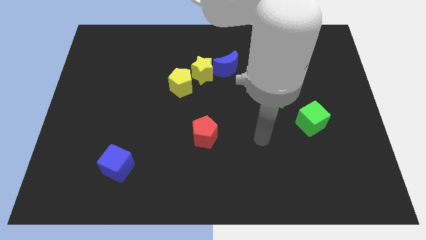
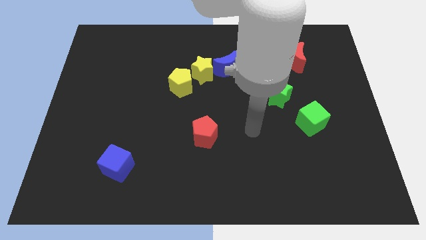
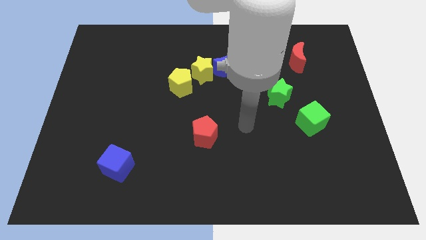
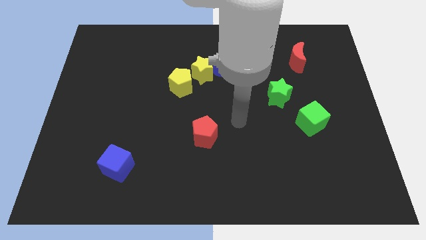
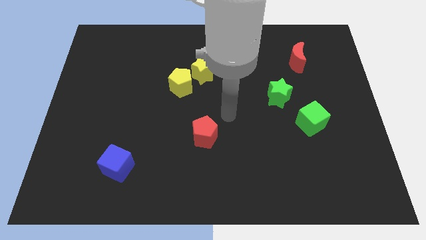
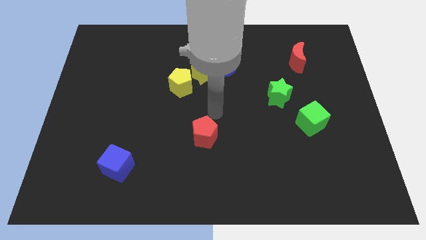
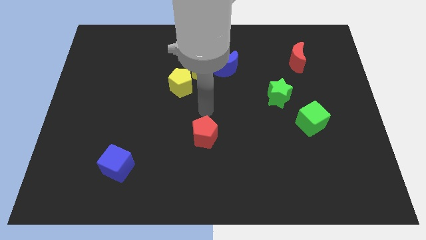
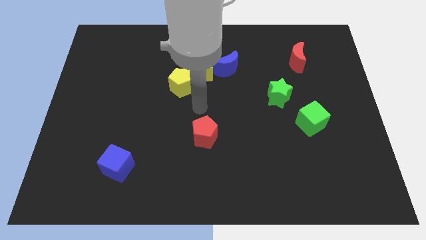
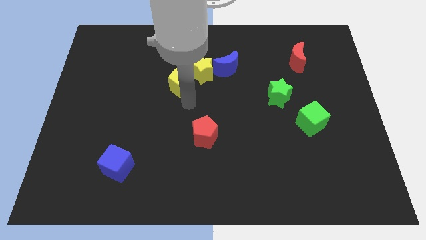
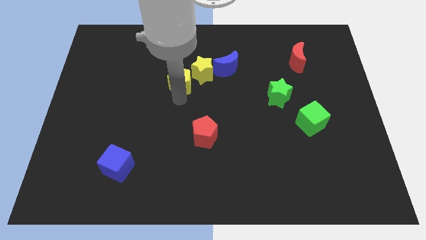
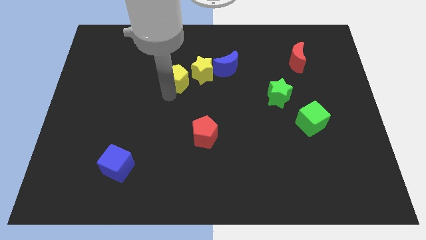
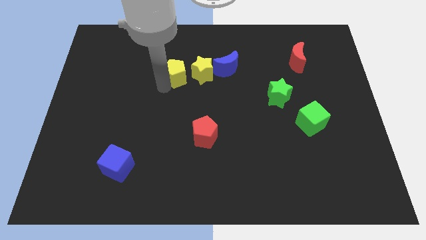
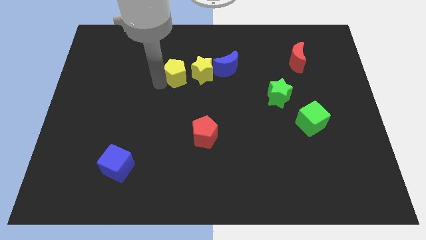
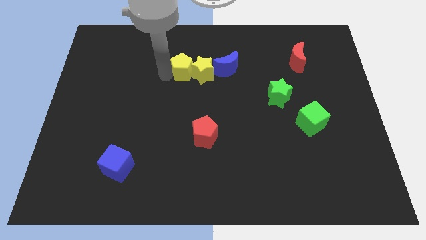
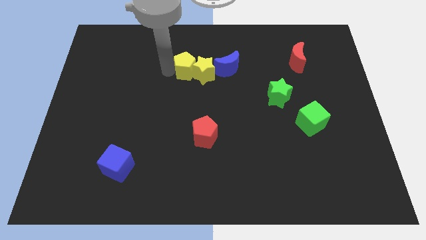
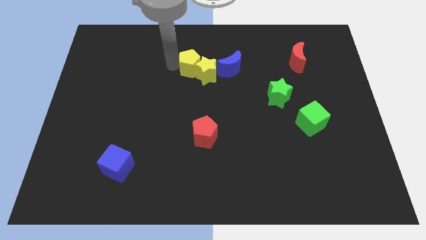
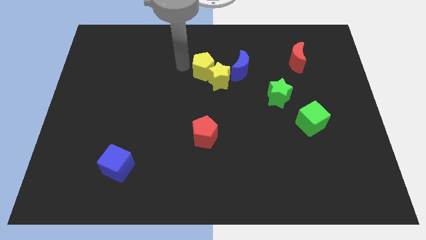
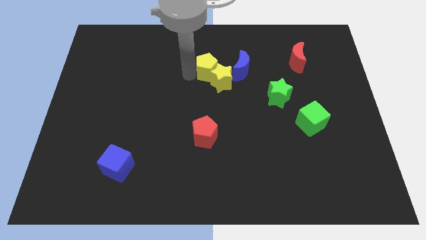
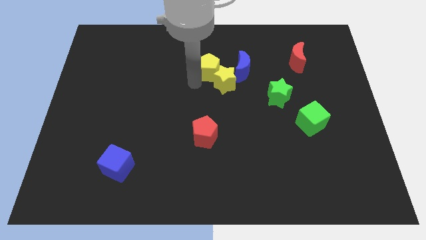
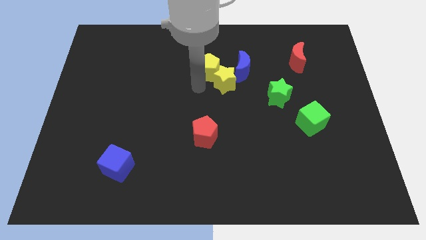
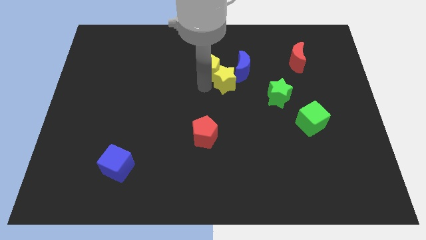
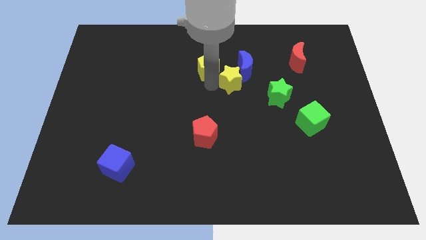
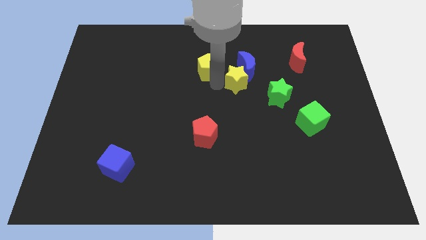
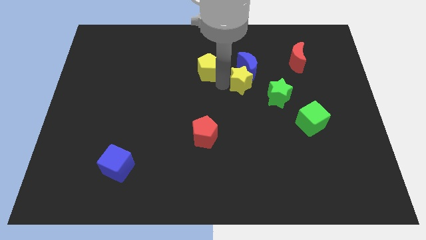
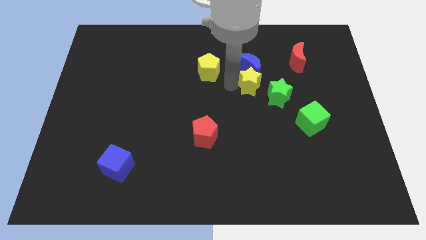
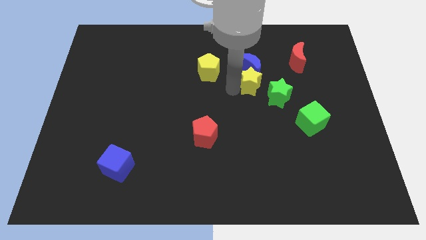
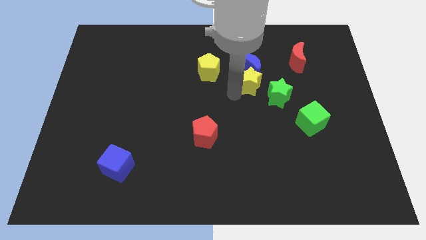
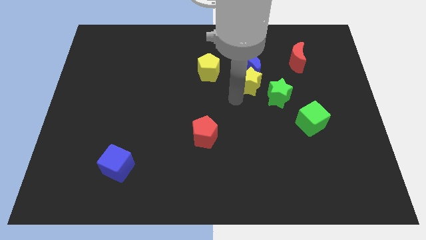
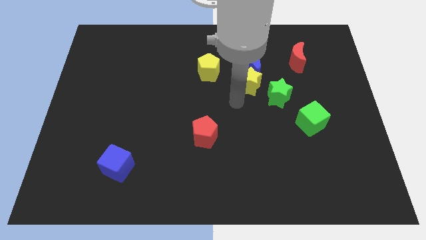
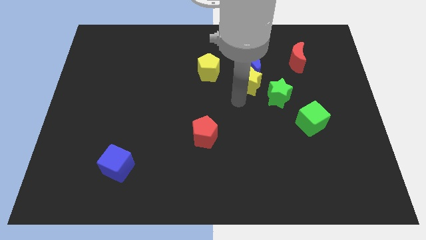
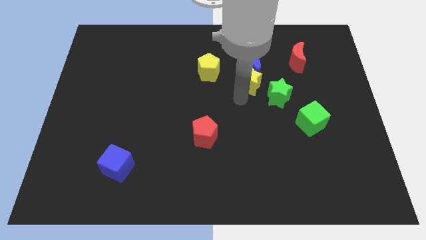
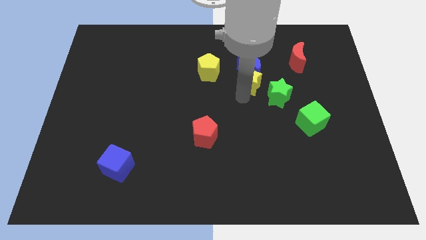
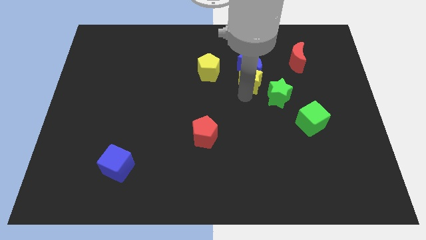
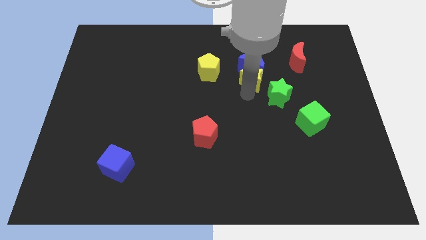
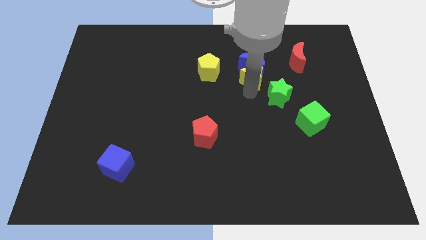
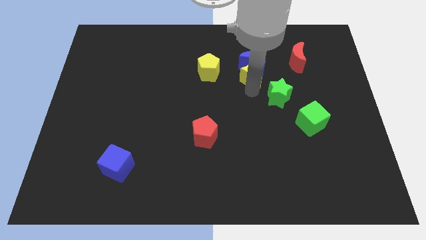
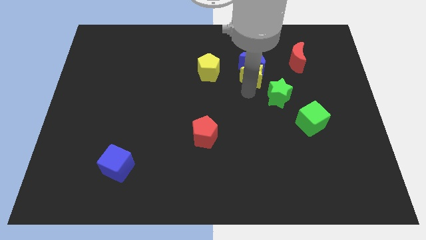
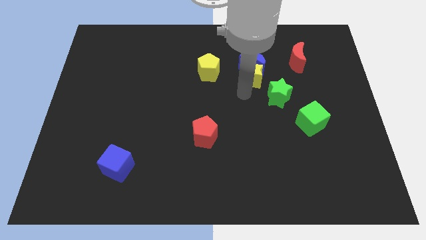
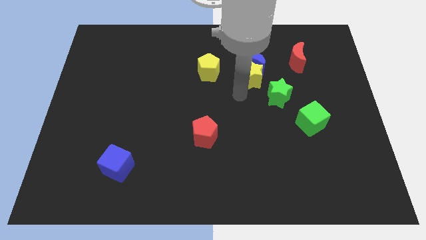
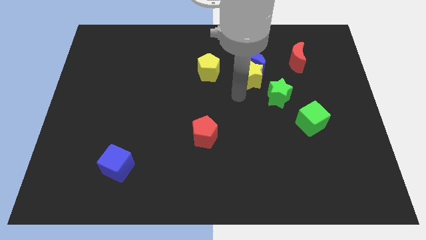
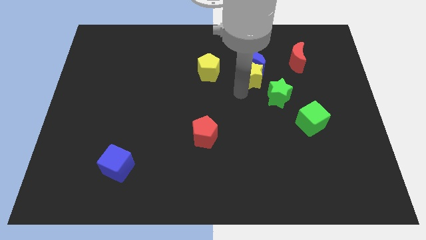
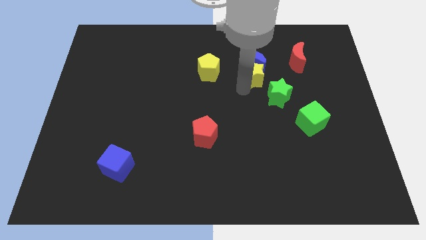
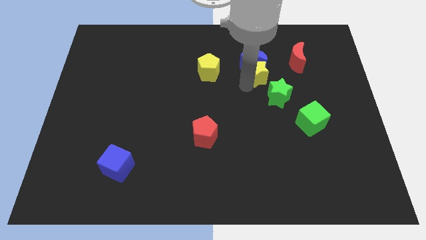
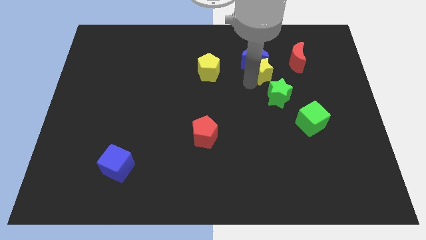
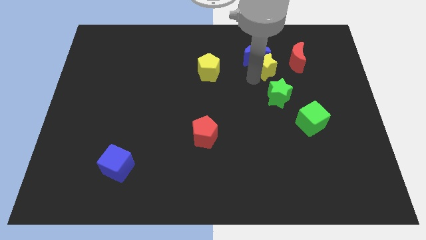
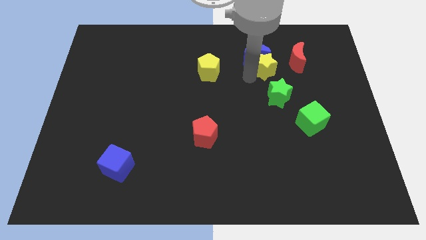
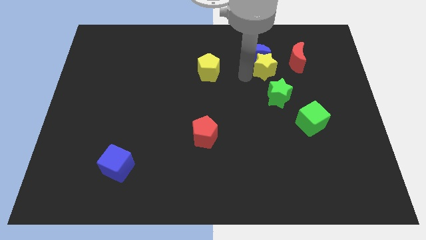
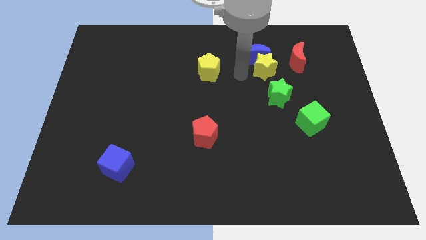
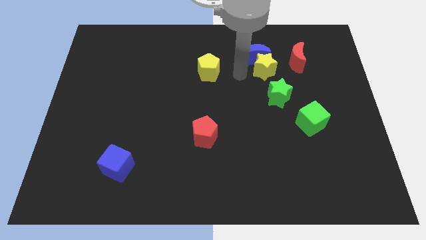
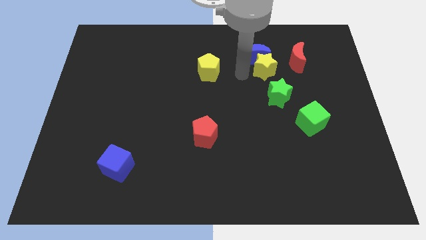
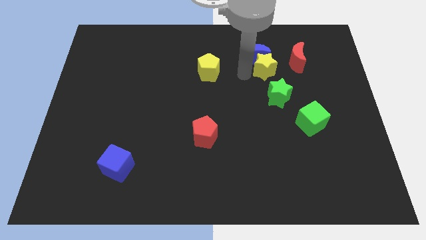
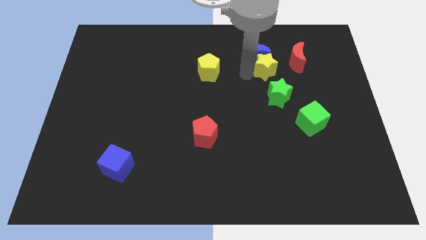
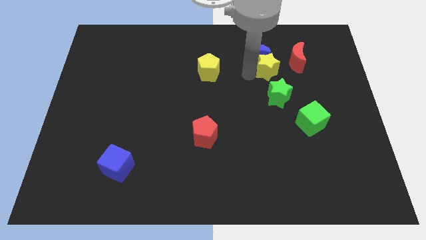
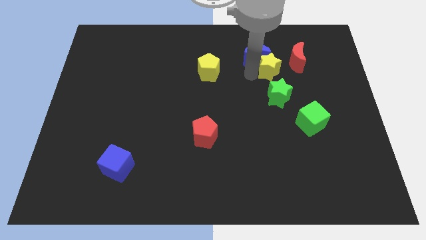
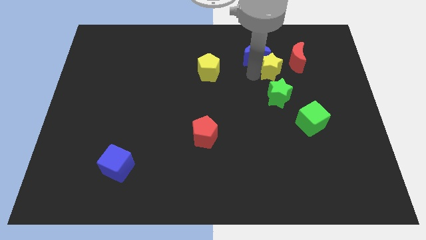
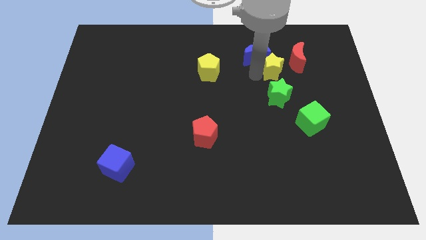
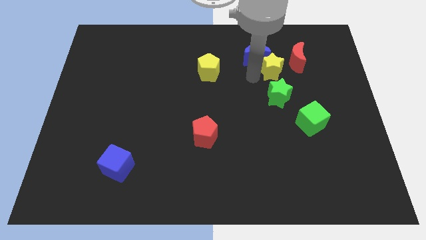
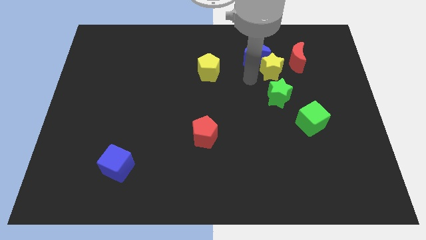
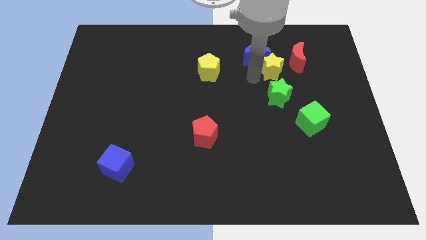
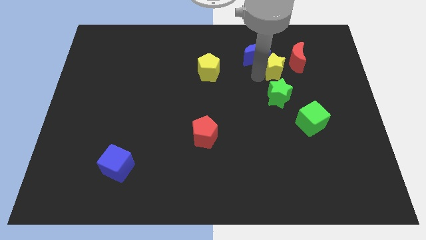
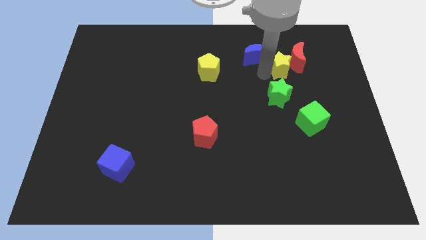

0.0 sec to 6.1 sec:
move the yellow star next to the red moon

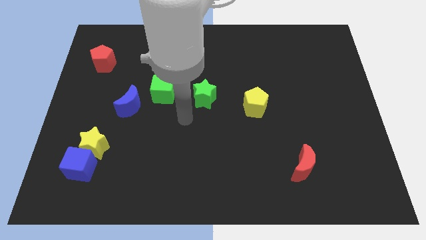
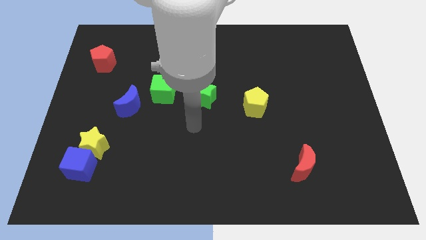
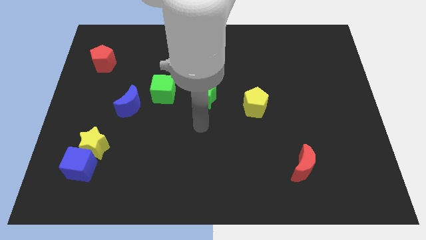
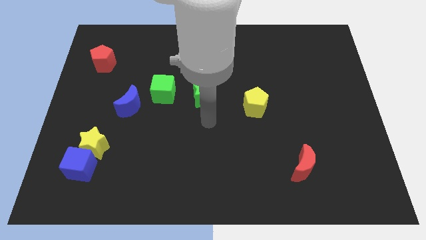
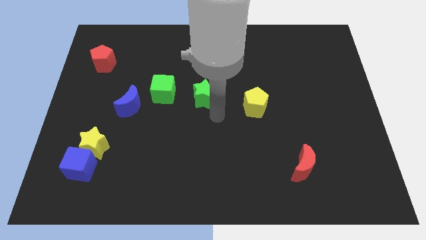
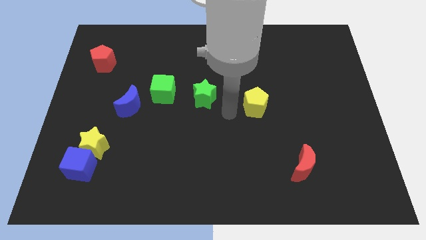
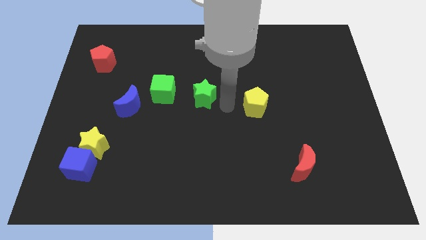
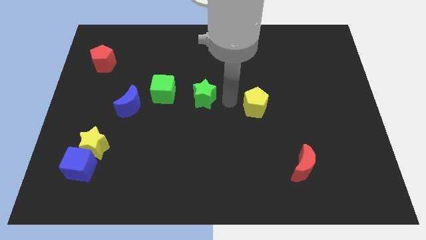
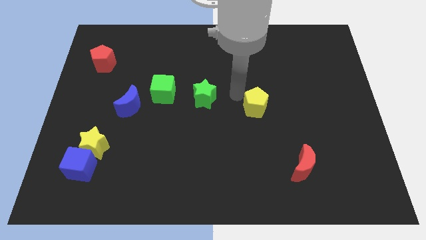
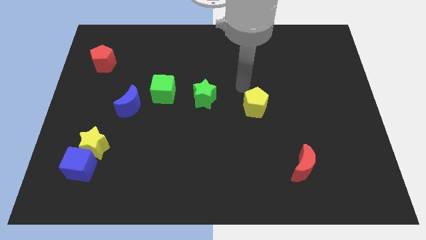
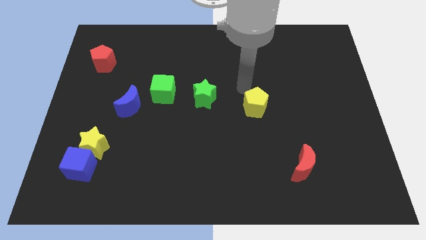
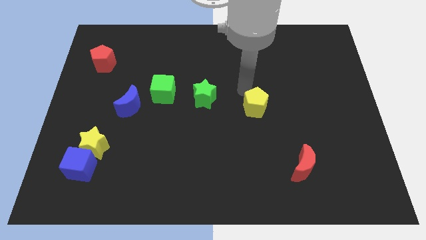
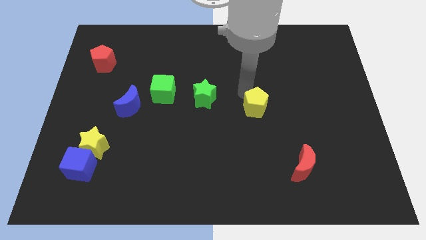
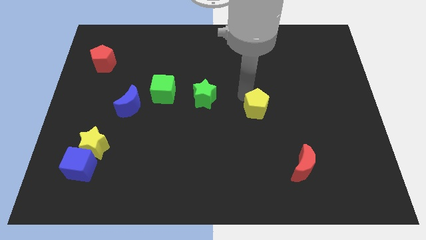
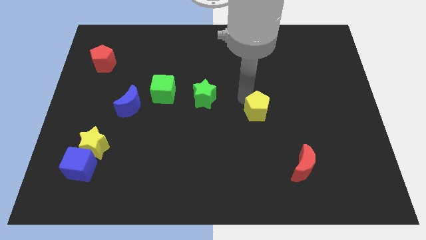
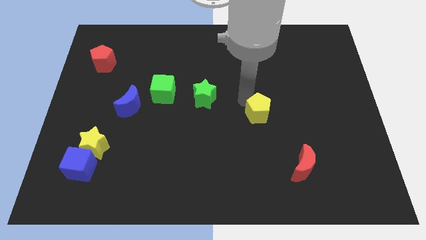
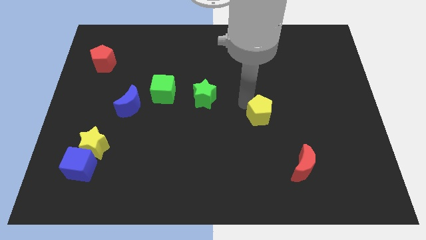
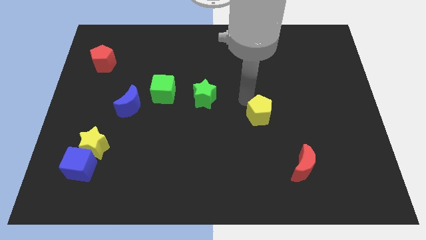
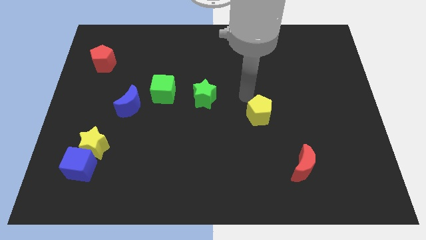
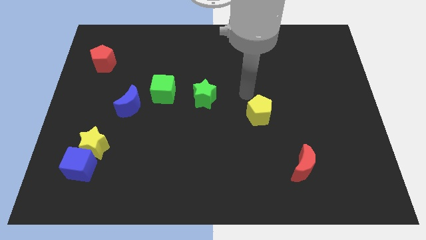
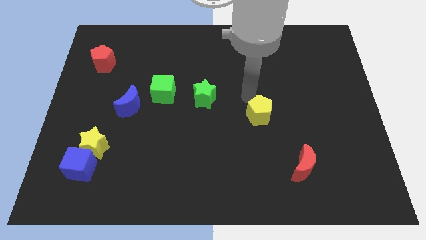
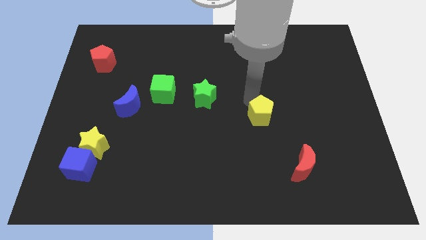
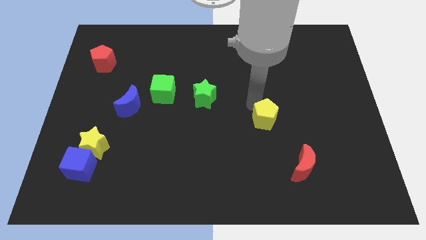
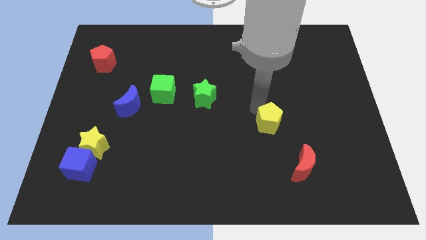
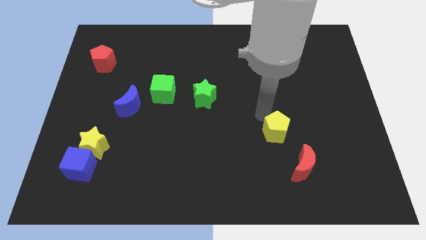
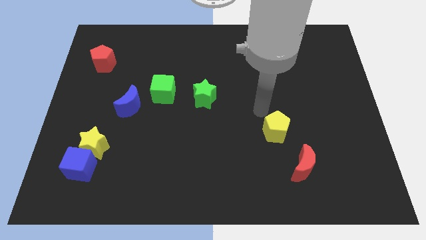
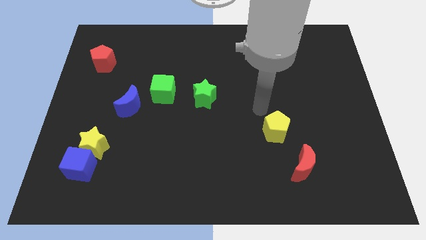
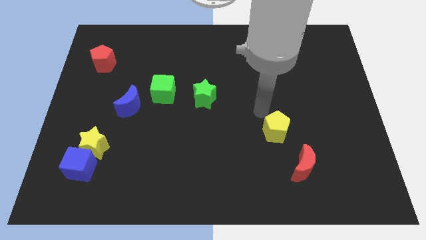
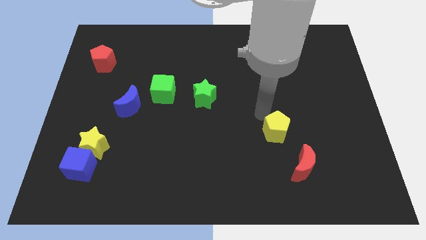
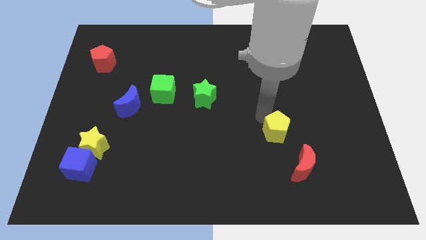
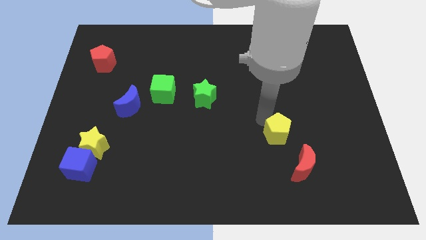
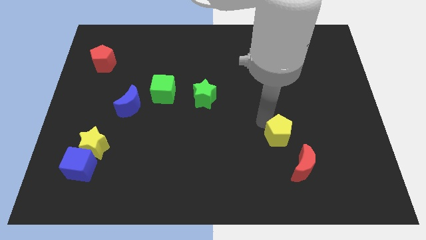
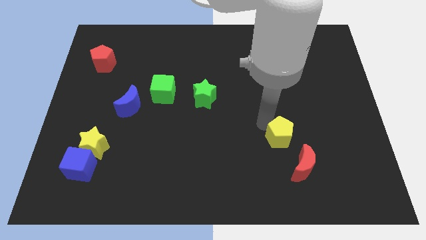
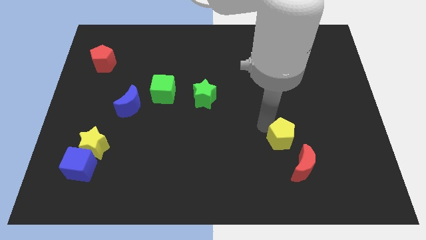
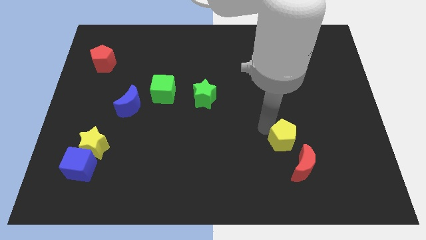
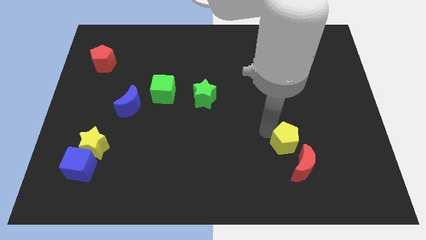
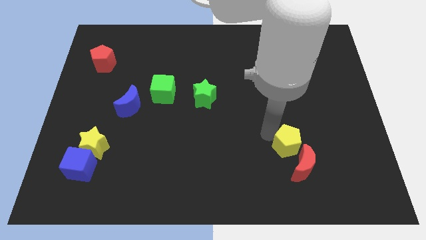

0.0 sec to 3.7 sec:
put the yellow pentagon close to the red moon
